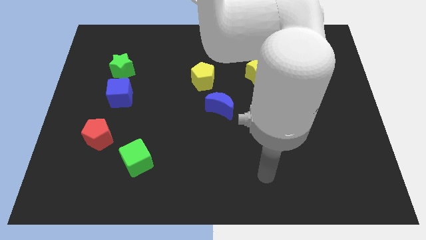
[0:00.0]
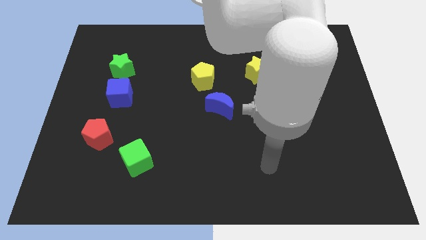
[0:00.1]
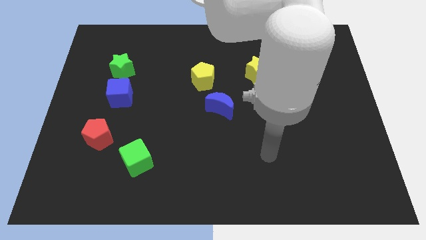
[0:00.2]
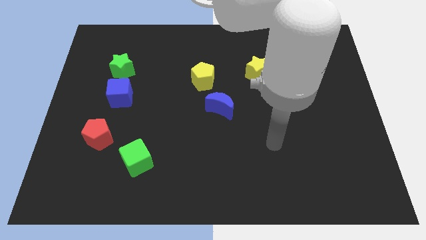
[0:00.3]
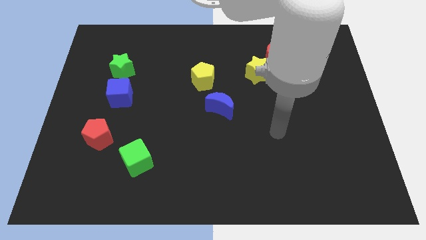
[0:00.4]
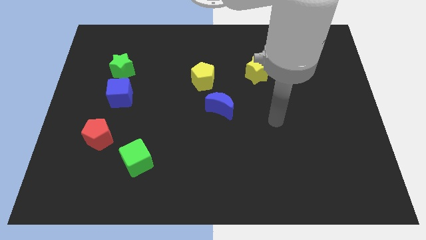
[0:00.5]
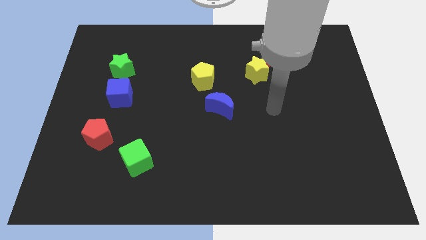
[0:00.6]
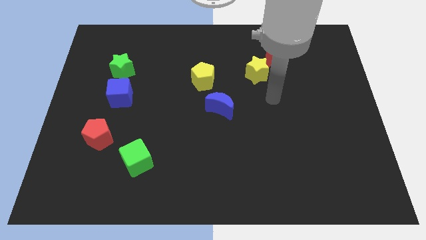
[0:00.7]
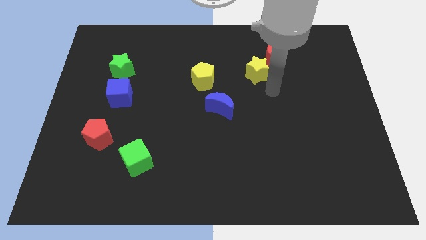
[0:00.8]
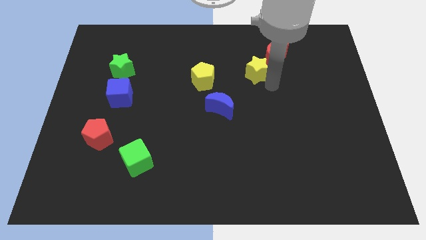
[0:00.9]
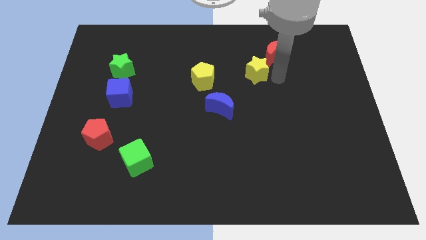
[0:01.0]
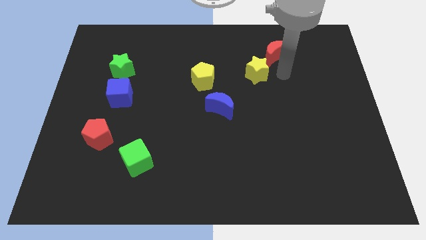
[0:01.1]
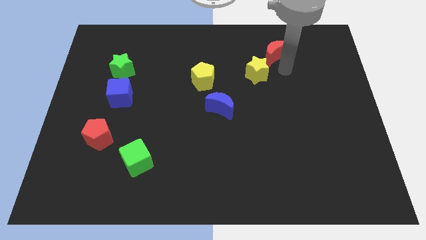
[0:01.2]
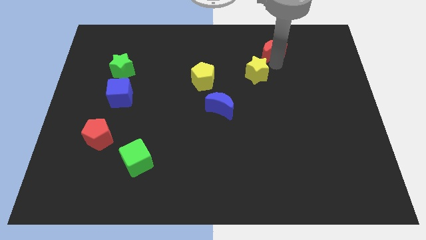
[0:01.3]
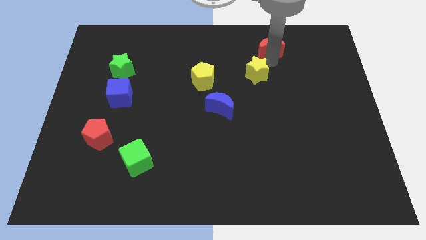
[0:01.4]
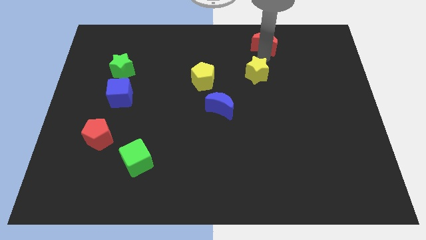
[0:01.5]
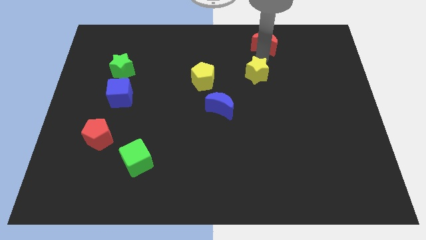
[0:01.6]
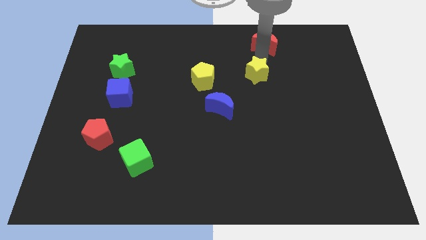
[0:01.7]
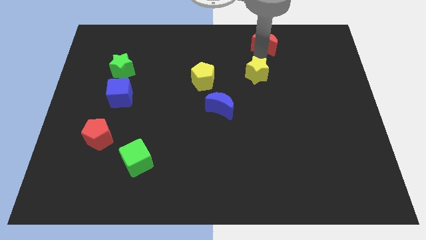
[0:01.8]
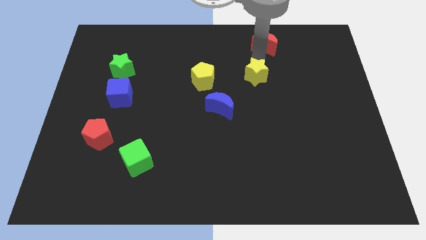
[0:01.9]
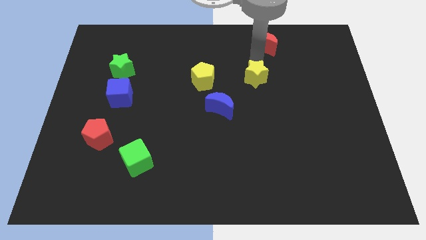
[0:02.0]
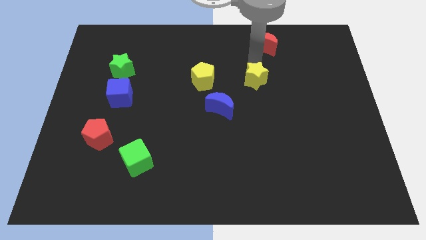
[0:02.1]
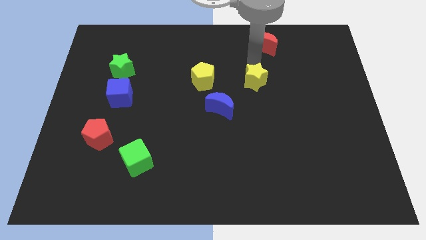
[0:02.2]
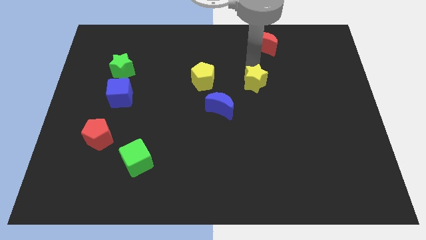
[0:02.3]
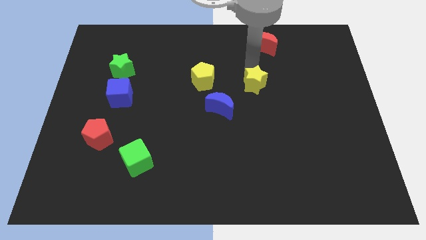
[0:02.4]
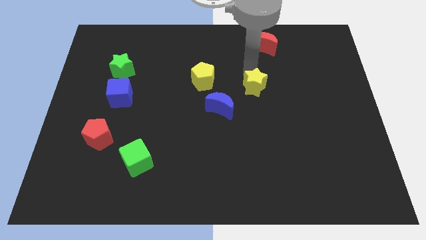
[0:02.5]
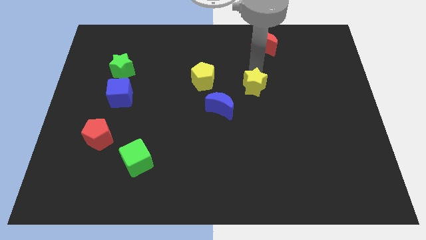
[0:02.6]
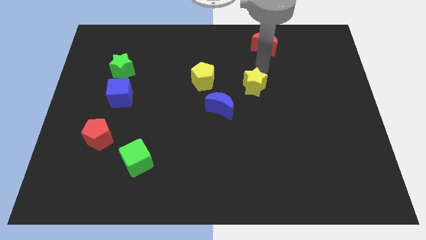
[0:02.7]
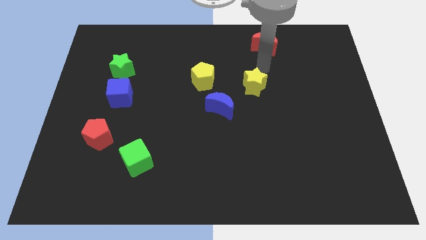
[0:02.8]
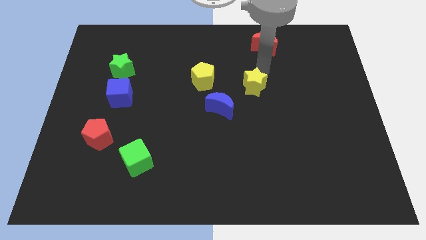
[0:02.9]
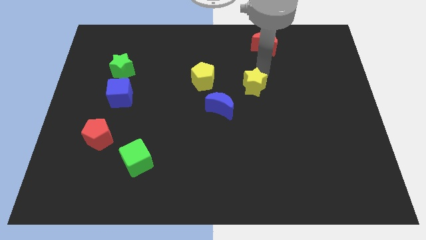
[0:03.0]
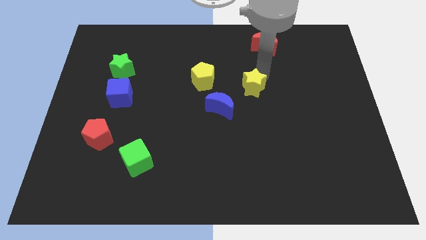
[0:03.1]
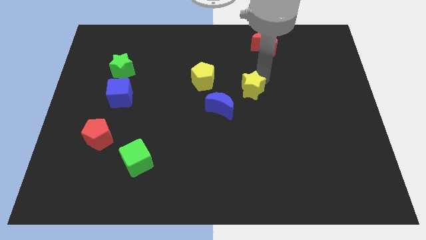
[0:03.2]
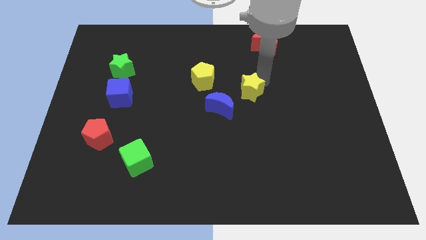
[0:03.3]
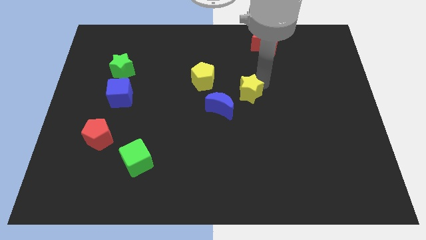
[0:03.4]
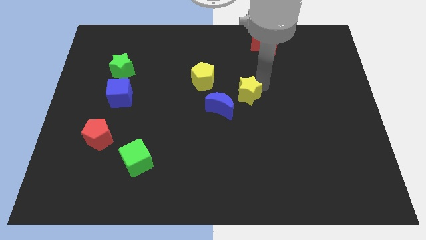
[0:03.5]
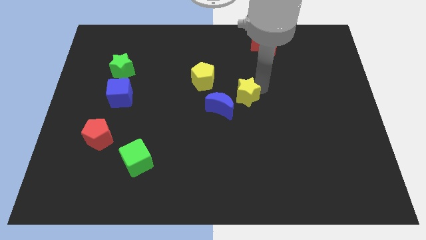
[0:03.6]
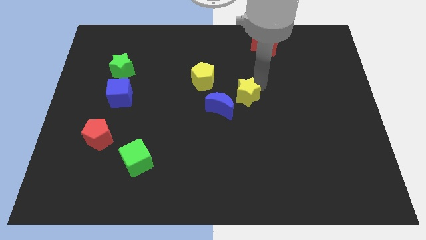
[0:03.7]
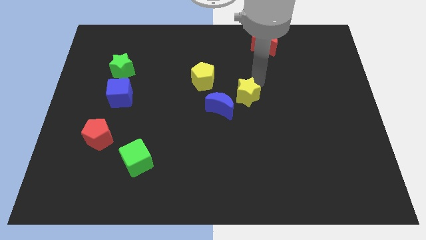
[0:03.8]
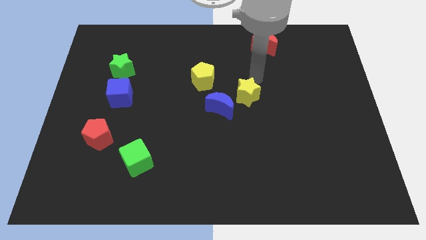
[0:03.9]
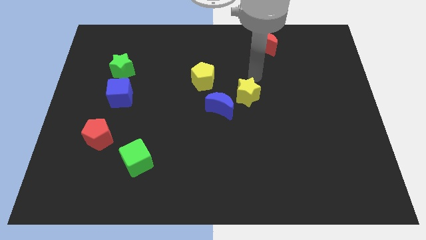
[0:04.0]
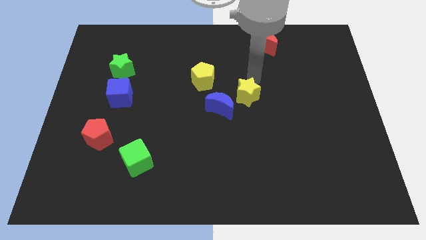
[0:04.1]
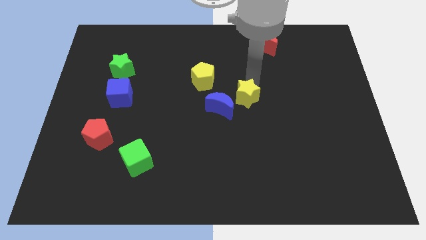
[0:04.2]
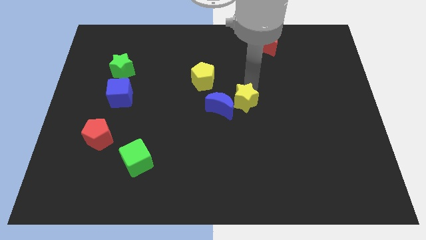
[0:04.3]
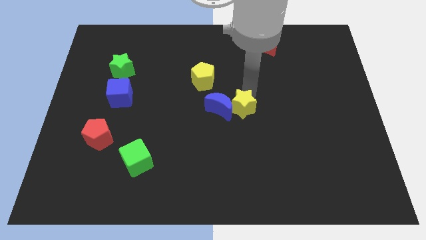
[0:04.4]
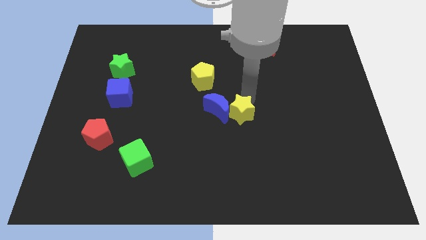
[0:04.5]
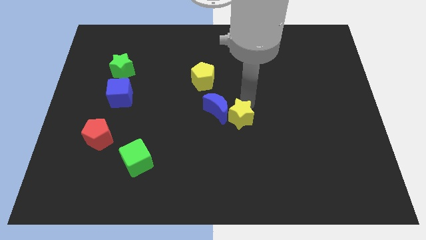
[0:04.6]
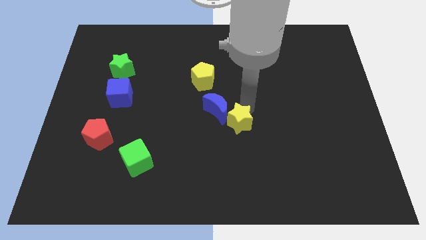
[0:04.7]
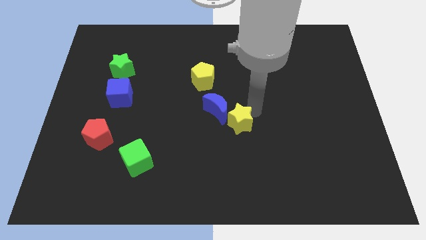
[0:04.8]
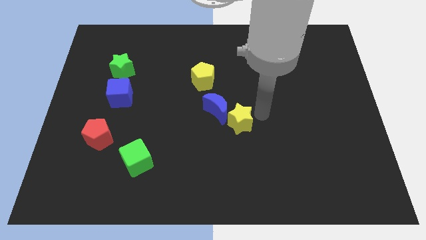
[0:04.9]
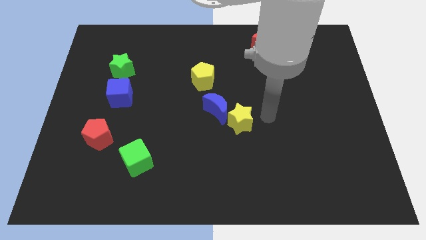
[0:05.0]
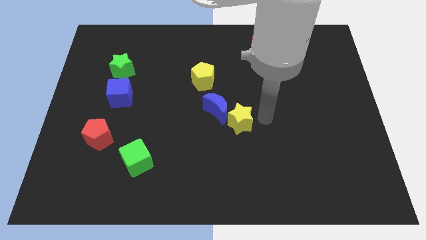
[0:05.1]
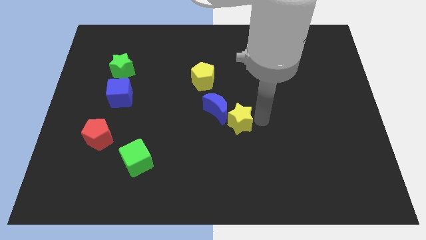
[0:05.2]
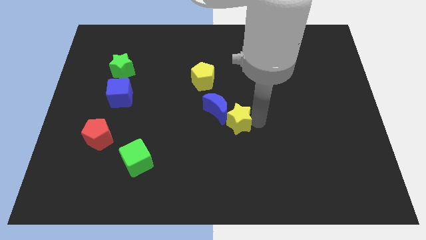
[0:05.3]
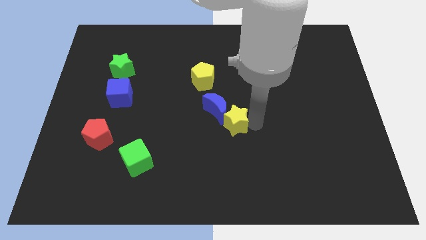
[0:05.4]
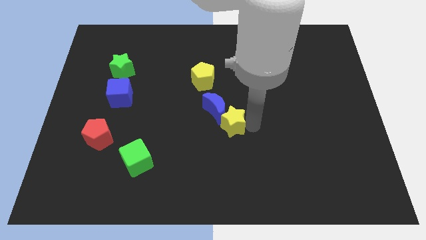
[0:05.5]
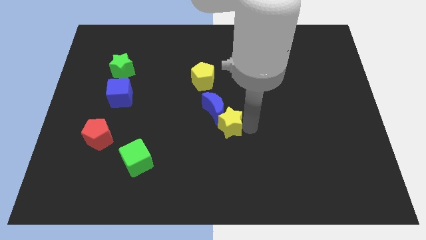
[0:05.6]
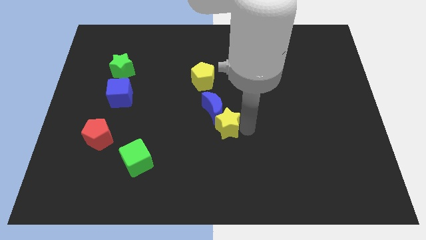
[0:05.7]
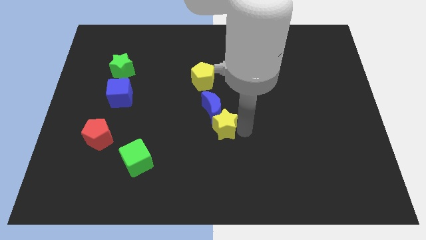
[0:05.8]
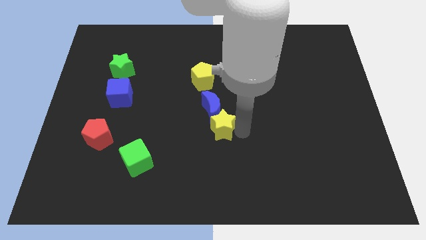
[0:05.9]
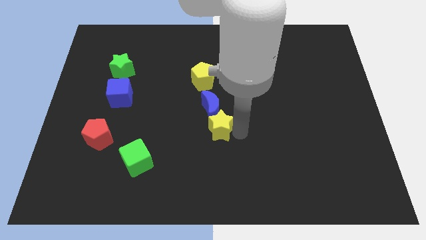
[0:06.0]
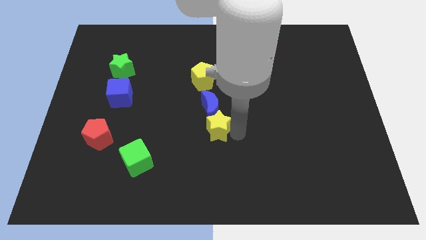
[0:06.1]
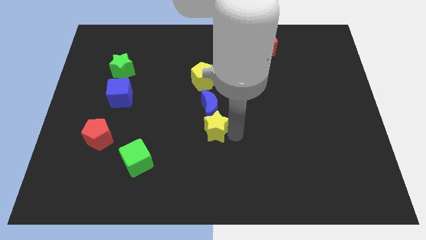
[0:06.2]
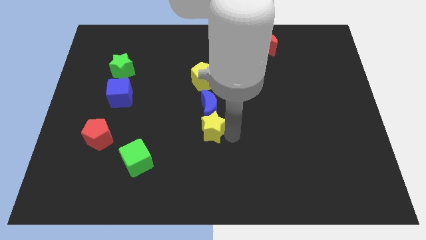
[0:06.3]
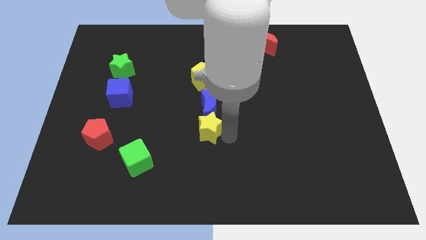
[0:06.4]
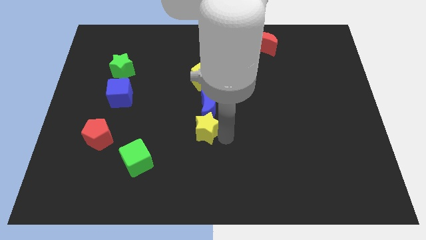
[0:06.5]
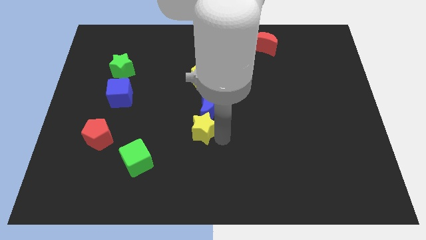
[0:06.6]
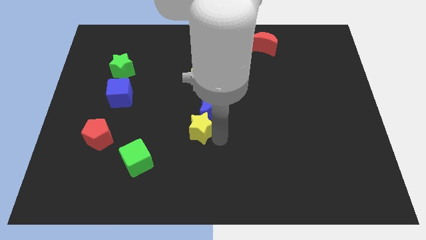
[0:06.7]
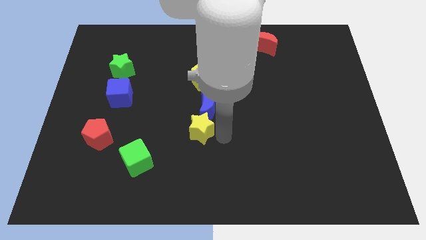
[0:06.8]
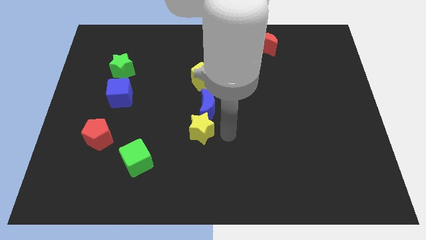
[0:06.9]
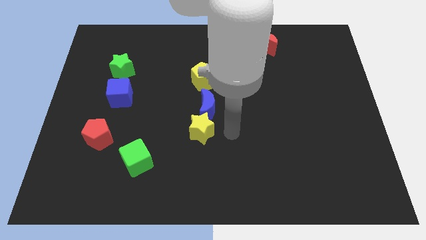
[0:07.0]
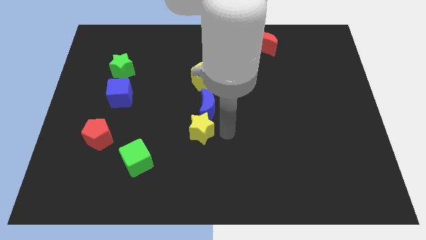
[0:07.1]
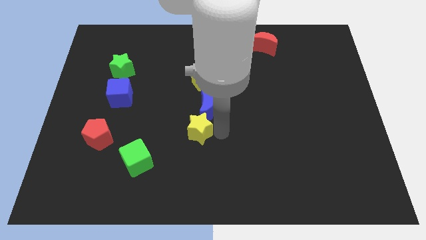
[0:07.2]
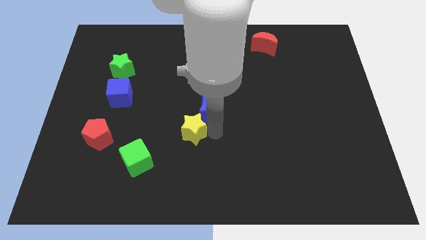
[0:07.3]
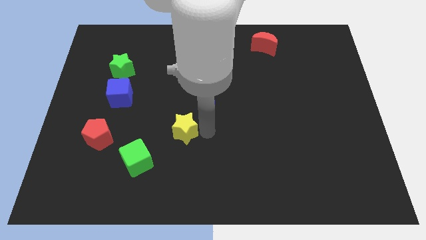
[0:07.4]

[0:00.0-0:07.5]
move the yellow star to the top right side of the green cube
